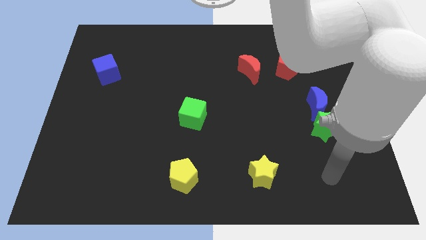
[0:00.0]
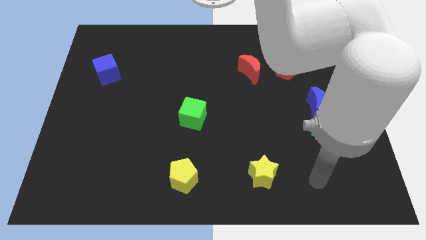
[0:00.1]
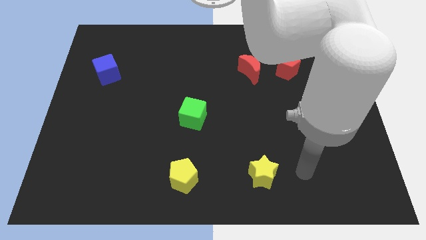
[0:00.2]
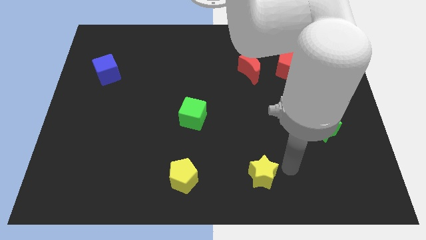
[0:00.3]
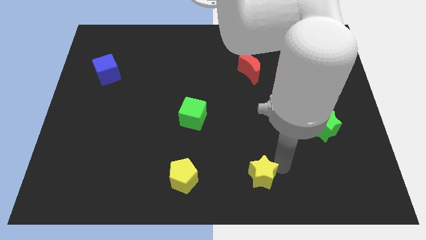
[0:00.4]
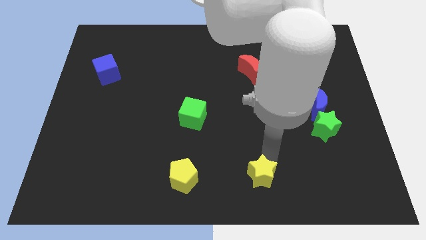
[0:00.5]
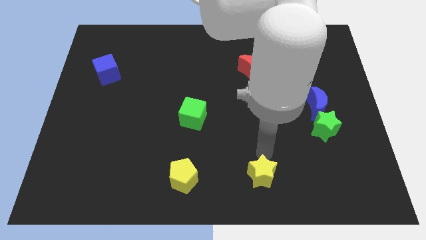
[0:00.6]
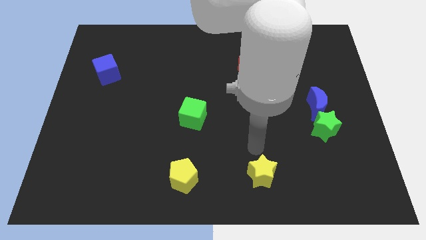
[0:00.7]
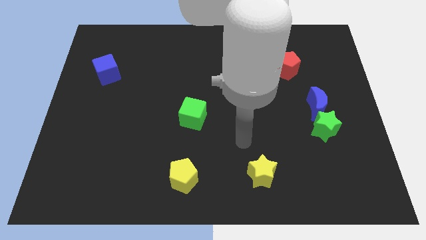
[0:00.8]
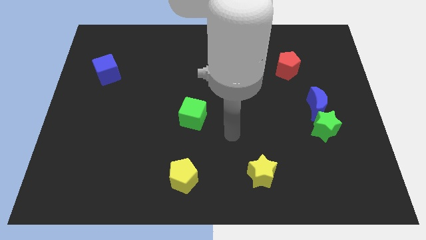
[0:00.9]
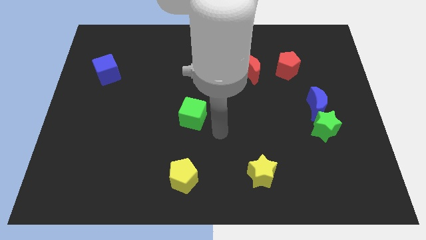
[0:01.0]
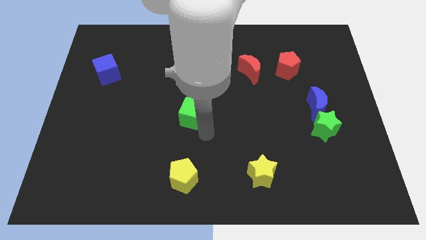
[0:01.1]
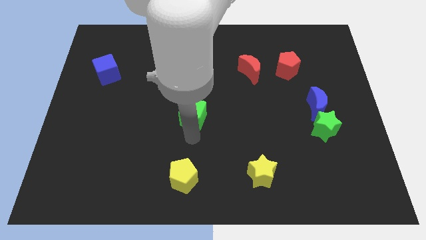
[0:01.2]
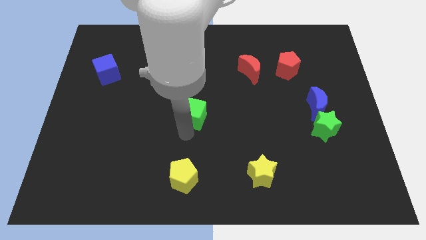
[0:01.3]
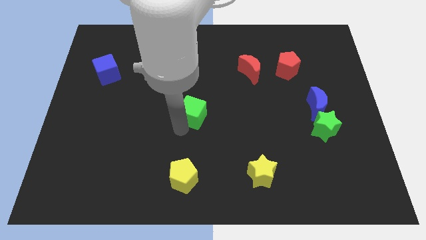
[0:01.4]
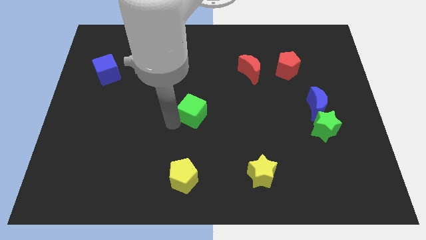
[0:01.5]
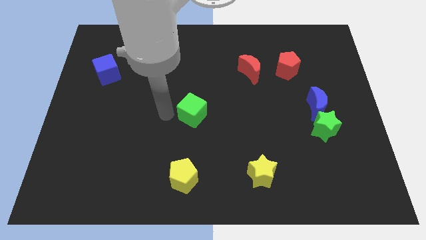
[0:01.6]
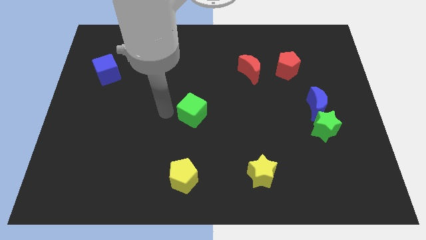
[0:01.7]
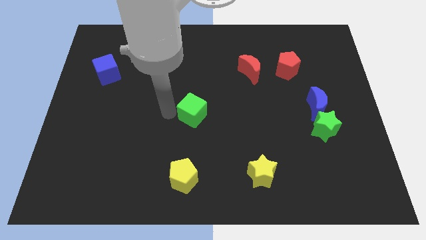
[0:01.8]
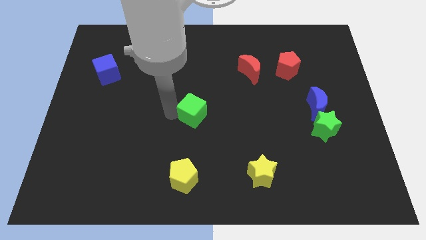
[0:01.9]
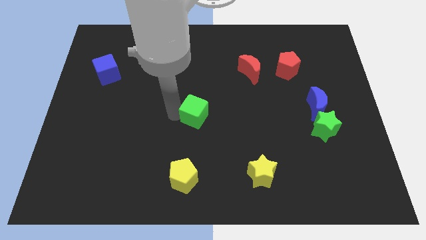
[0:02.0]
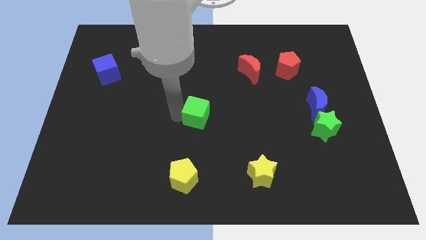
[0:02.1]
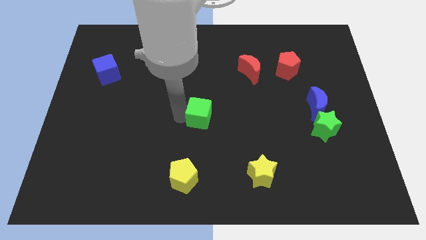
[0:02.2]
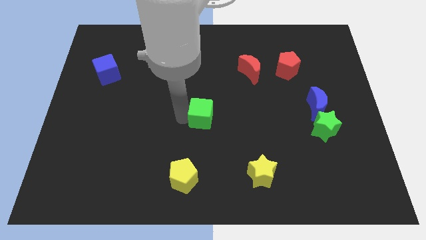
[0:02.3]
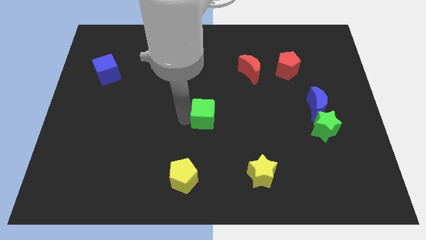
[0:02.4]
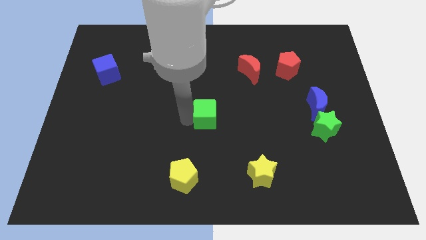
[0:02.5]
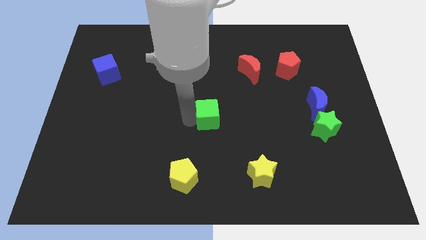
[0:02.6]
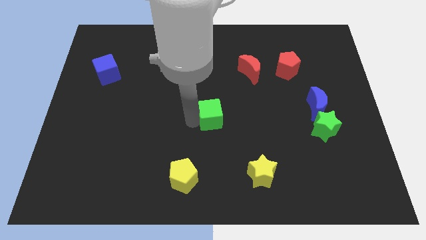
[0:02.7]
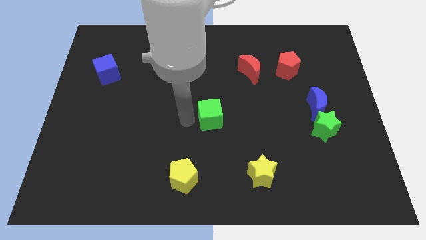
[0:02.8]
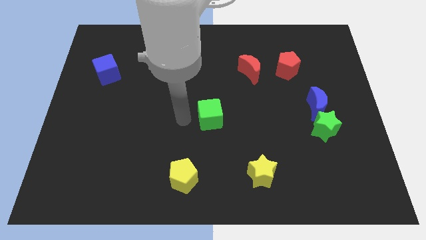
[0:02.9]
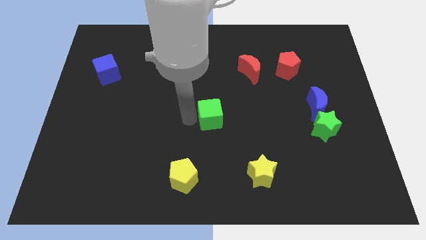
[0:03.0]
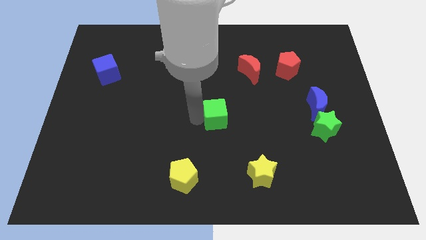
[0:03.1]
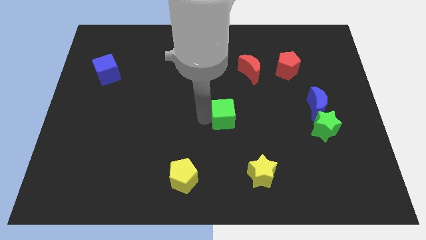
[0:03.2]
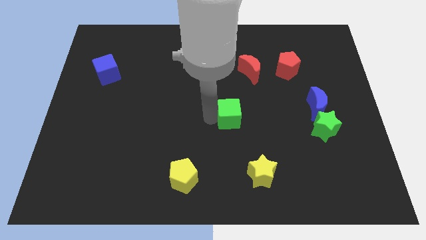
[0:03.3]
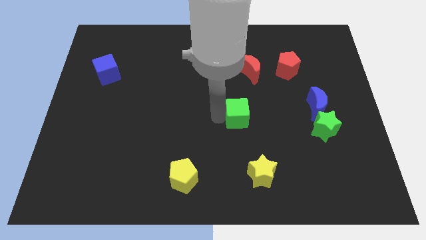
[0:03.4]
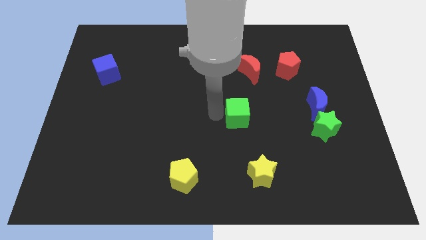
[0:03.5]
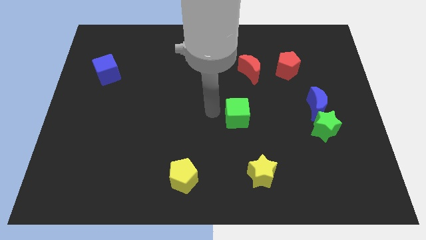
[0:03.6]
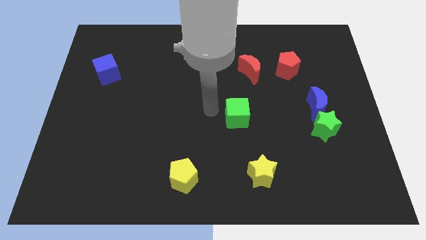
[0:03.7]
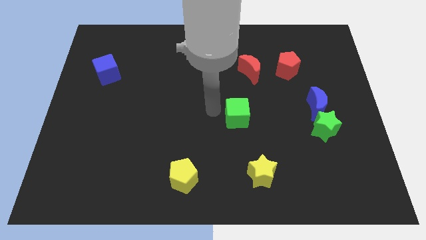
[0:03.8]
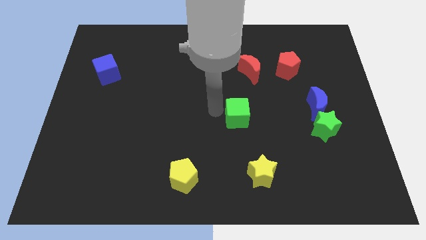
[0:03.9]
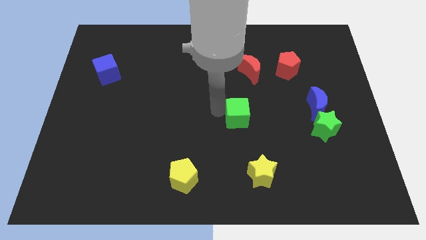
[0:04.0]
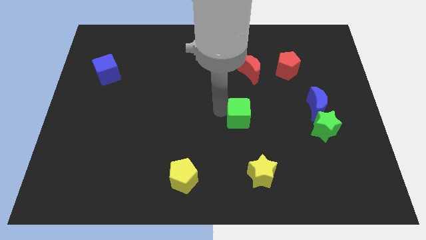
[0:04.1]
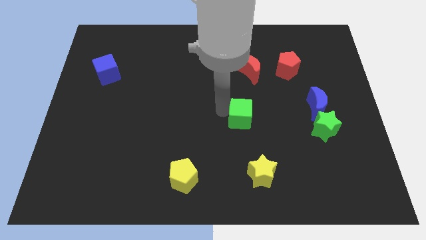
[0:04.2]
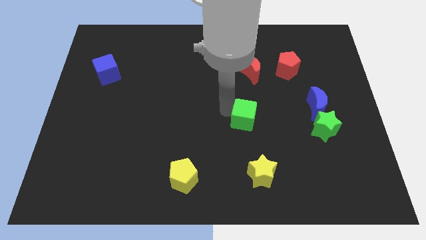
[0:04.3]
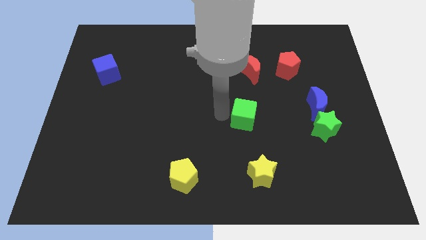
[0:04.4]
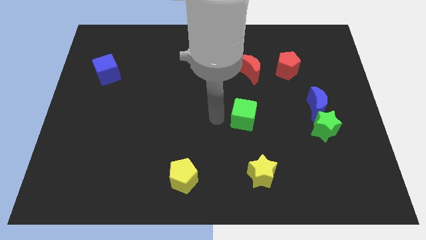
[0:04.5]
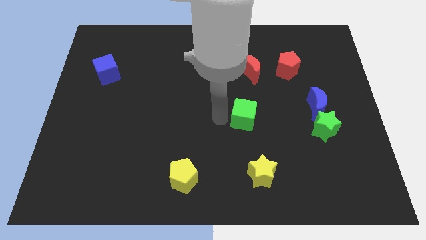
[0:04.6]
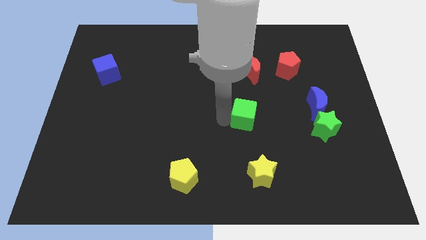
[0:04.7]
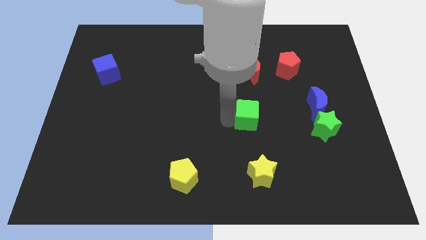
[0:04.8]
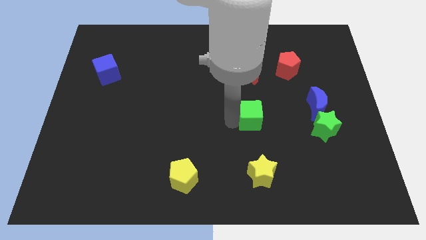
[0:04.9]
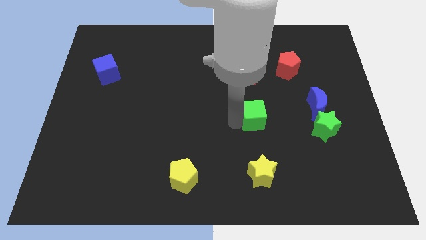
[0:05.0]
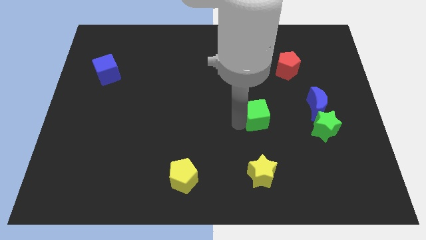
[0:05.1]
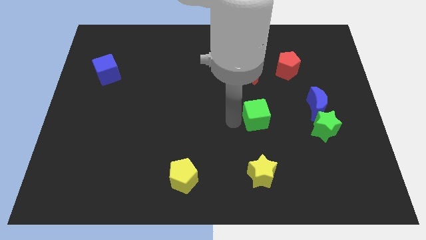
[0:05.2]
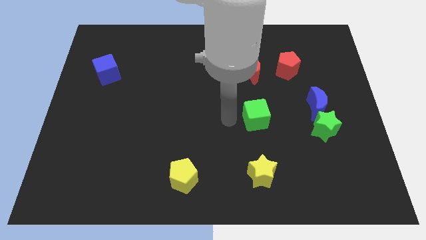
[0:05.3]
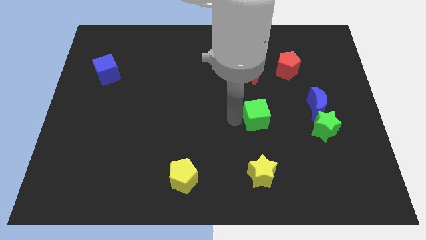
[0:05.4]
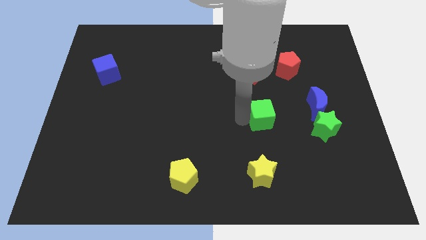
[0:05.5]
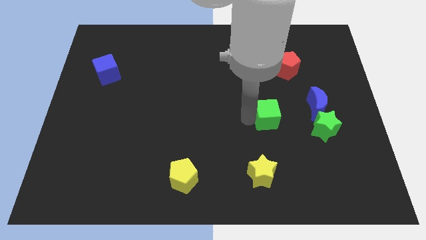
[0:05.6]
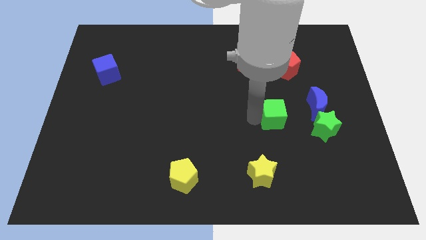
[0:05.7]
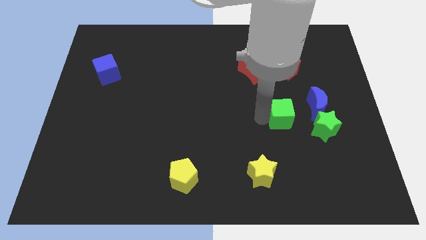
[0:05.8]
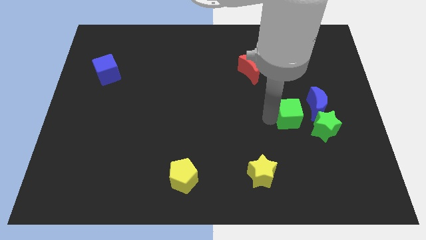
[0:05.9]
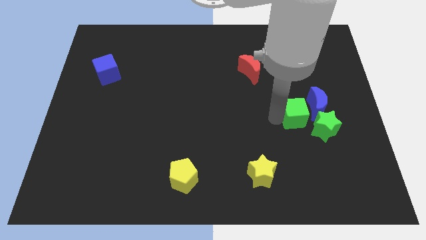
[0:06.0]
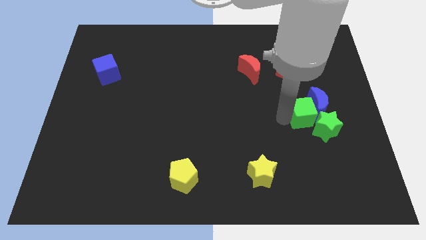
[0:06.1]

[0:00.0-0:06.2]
slide the green cube close to the blue moon

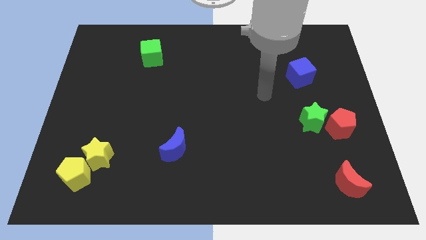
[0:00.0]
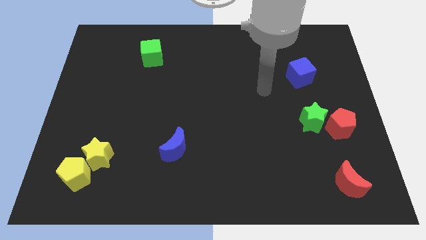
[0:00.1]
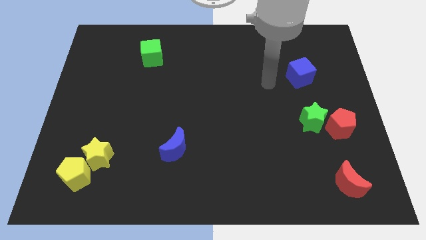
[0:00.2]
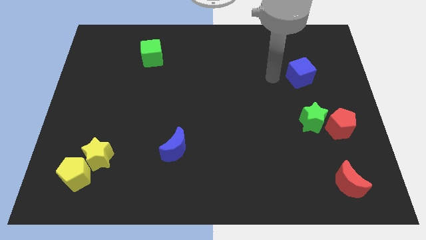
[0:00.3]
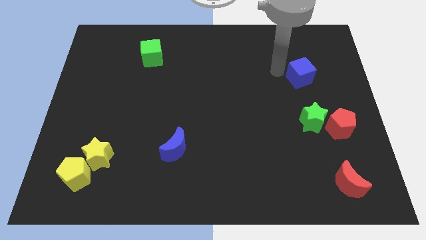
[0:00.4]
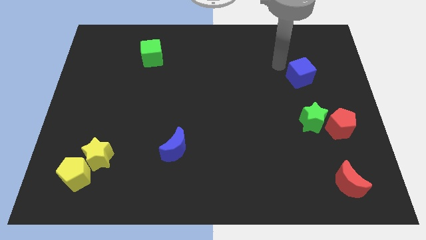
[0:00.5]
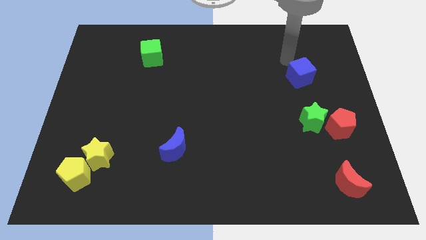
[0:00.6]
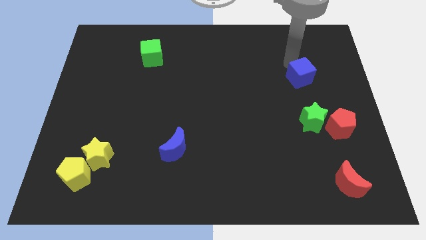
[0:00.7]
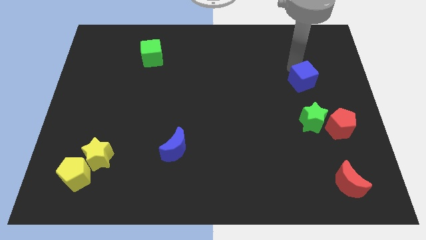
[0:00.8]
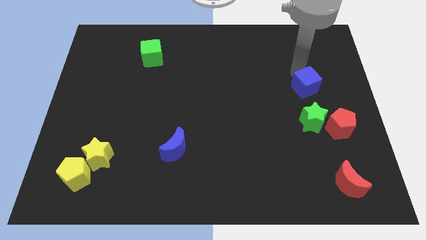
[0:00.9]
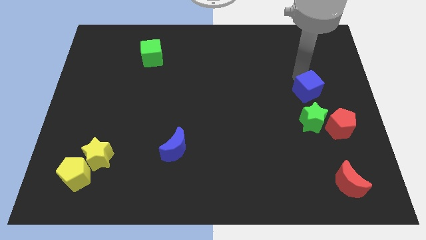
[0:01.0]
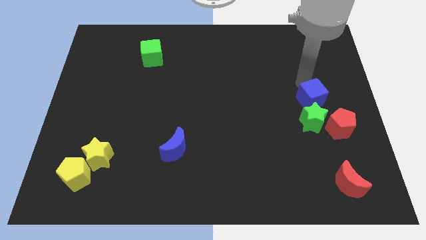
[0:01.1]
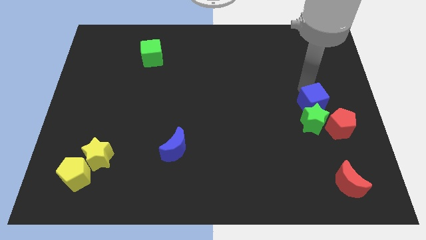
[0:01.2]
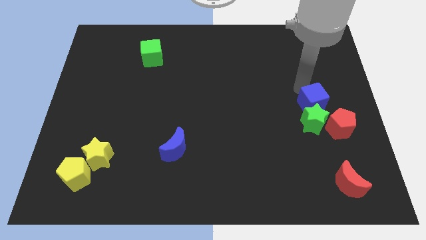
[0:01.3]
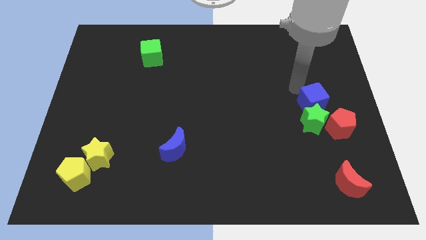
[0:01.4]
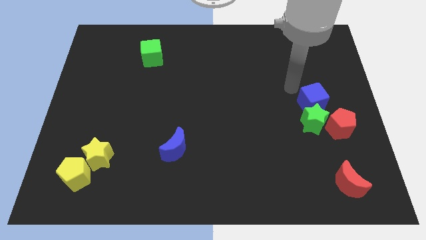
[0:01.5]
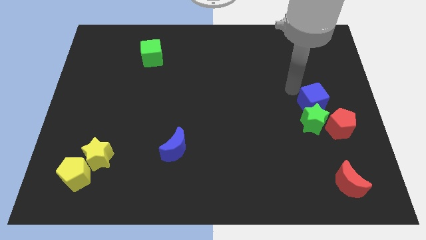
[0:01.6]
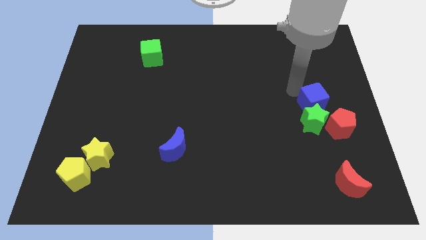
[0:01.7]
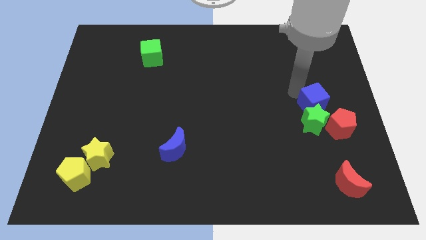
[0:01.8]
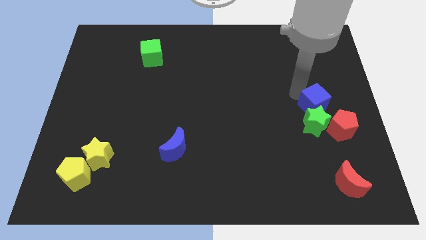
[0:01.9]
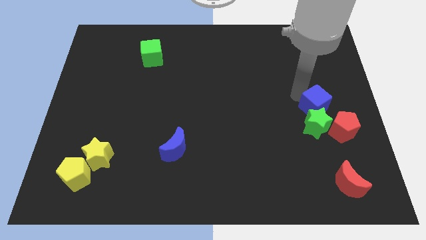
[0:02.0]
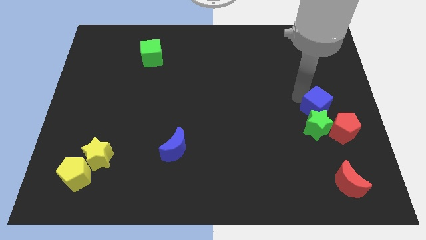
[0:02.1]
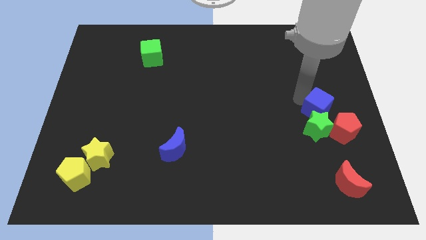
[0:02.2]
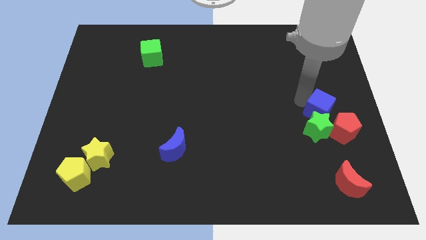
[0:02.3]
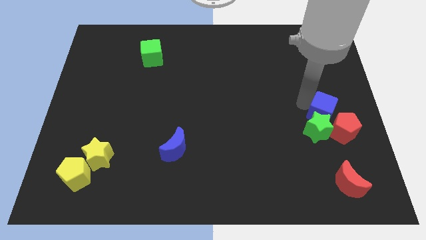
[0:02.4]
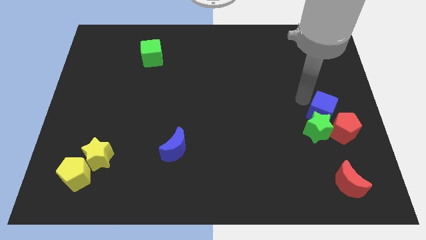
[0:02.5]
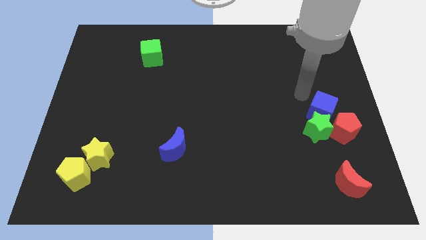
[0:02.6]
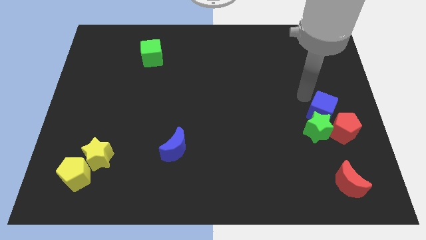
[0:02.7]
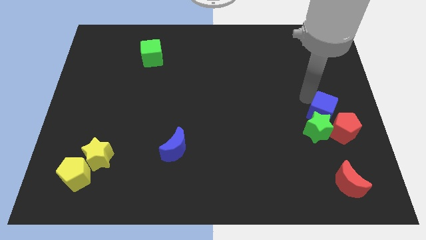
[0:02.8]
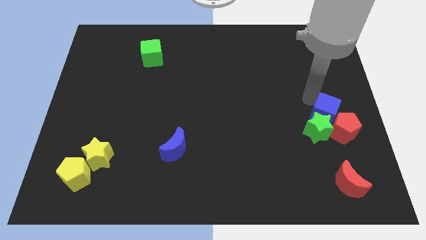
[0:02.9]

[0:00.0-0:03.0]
slide the blue cube to the red pentagon
